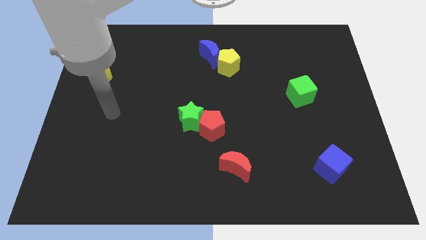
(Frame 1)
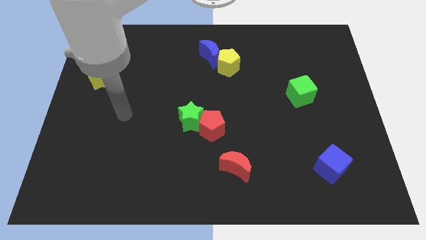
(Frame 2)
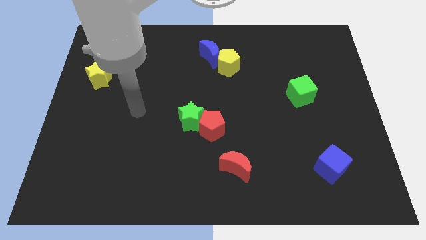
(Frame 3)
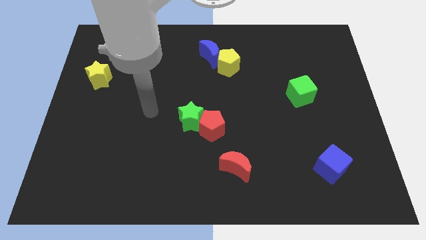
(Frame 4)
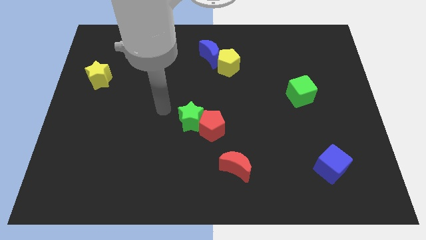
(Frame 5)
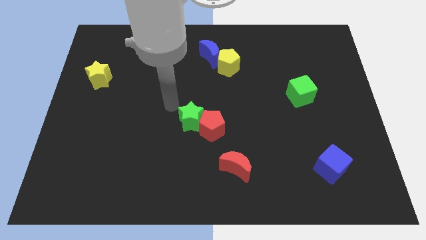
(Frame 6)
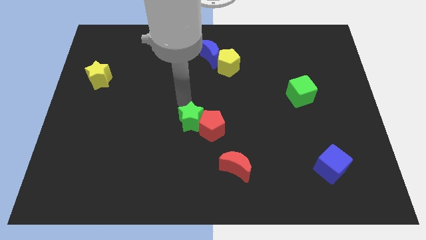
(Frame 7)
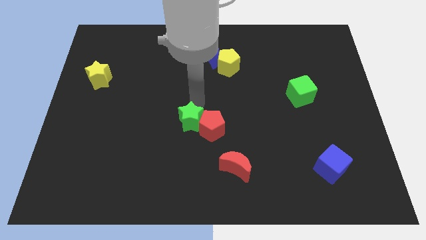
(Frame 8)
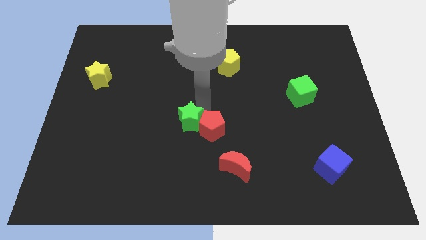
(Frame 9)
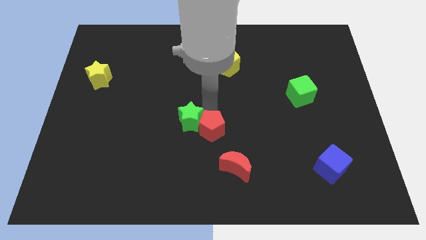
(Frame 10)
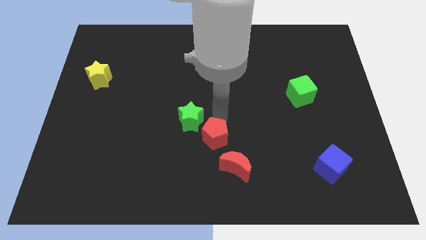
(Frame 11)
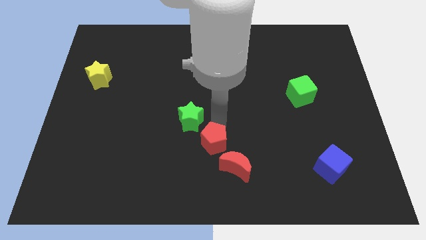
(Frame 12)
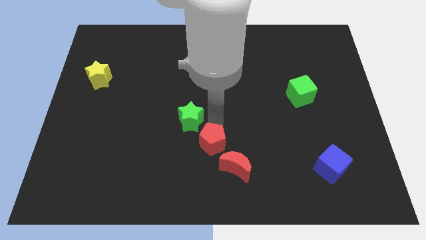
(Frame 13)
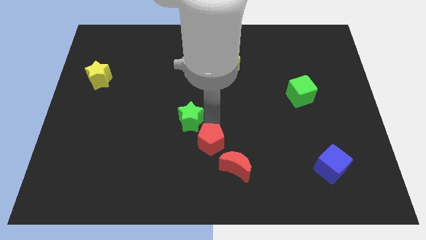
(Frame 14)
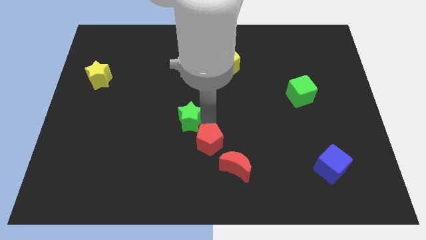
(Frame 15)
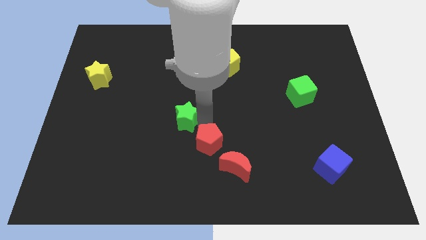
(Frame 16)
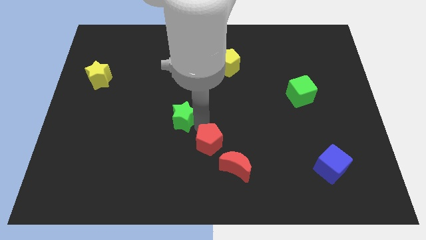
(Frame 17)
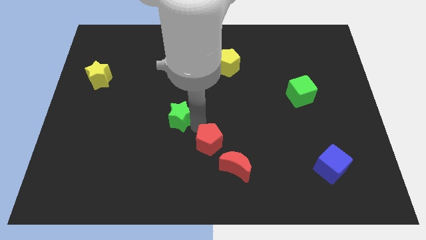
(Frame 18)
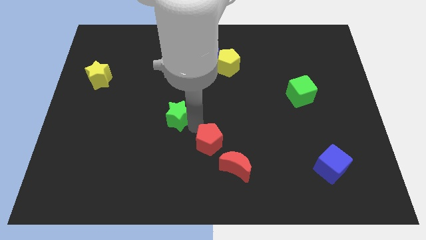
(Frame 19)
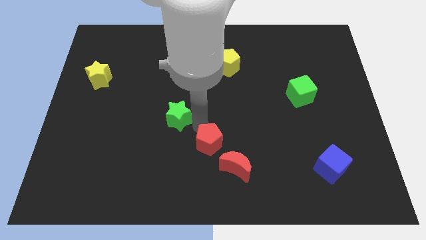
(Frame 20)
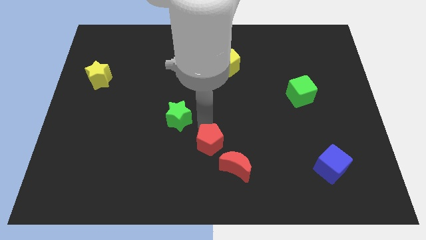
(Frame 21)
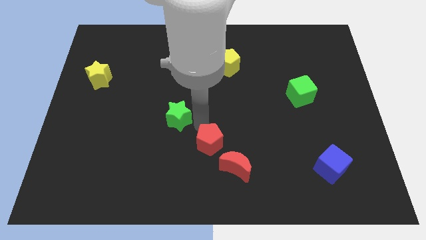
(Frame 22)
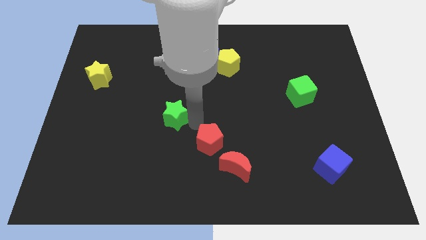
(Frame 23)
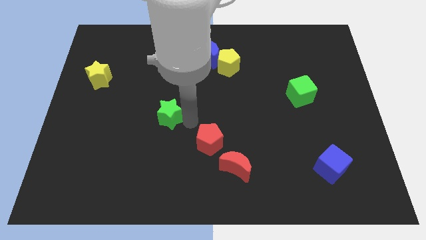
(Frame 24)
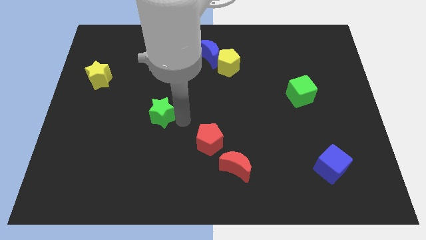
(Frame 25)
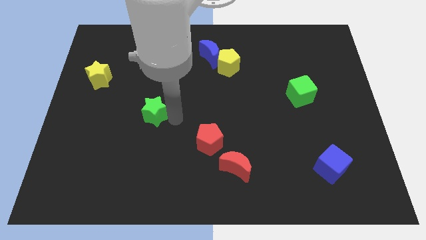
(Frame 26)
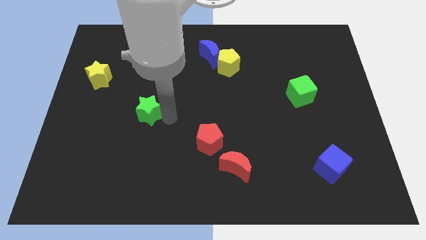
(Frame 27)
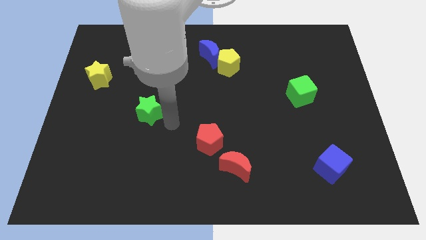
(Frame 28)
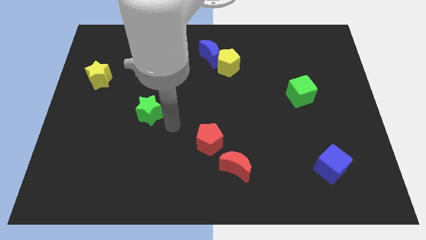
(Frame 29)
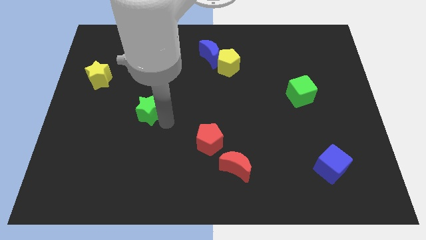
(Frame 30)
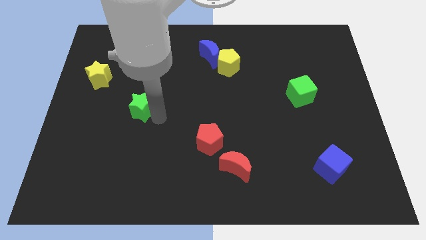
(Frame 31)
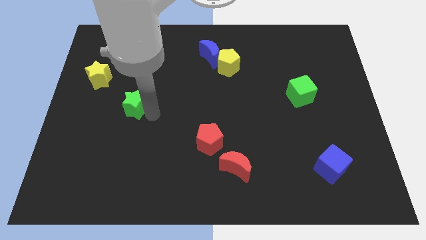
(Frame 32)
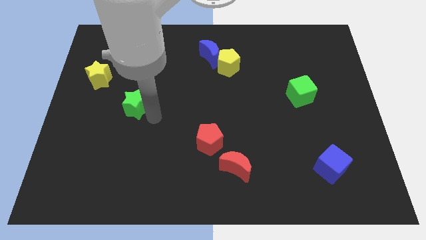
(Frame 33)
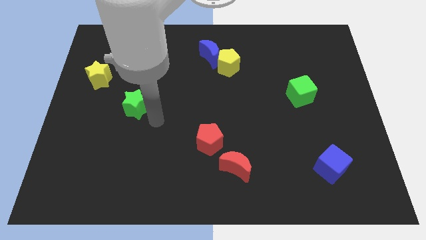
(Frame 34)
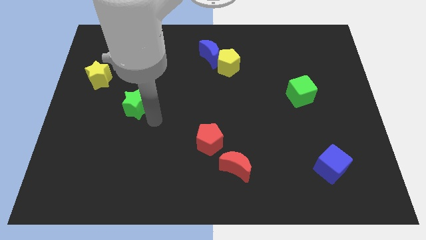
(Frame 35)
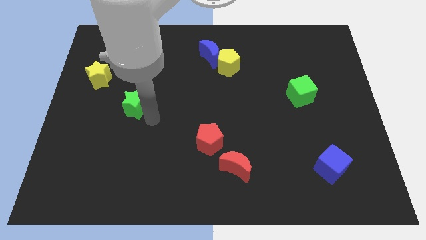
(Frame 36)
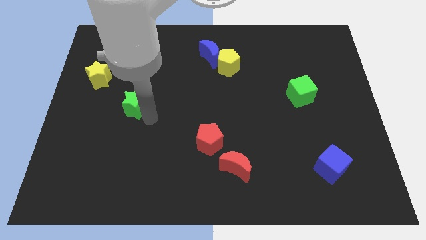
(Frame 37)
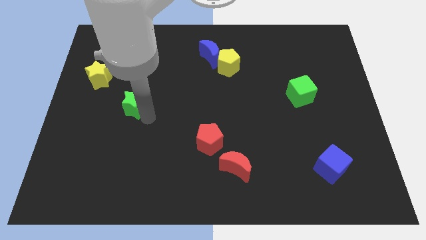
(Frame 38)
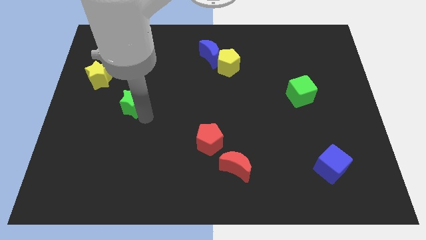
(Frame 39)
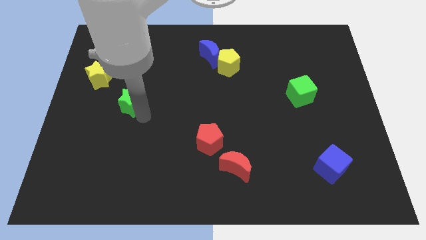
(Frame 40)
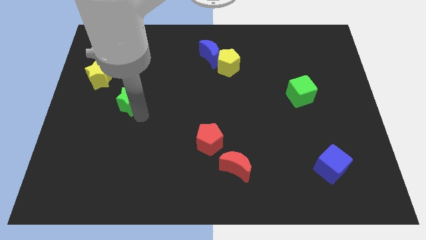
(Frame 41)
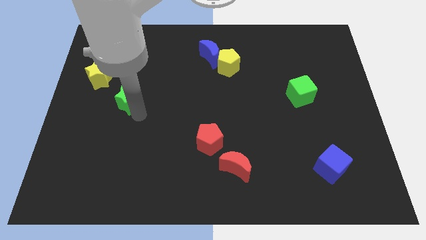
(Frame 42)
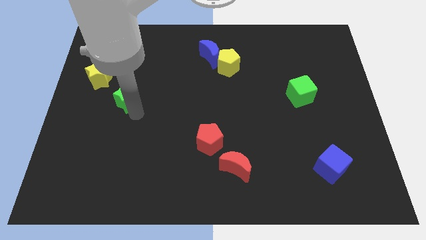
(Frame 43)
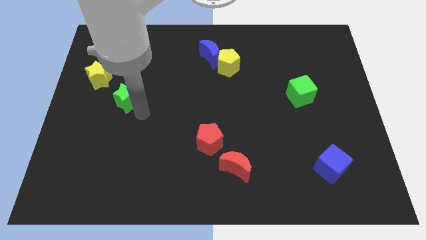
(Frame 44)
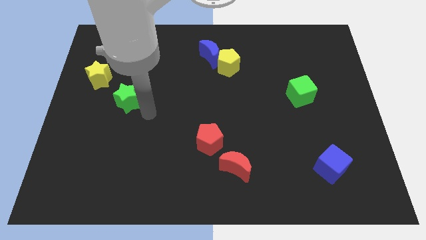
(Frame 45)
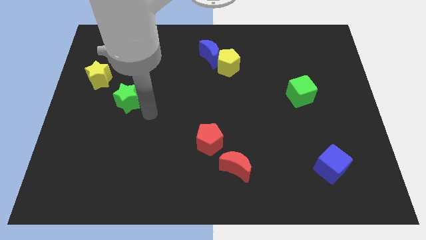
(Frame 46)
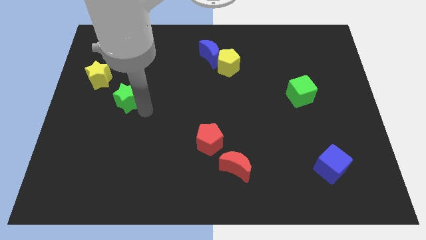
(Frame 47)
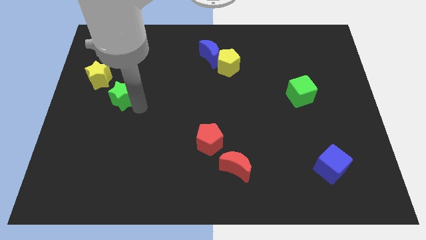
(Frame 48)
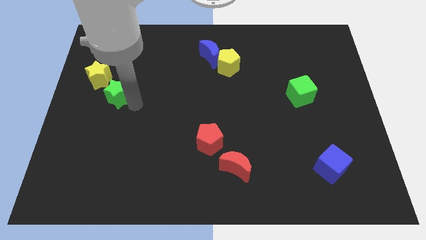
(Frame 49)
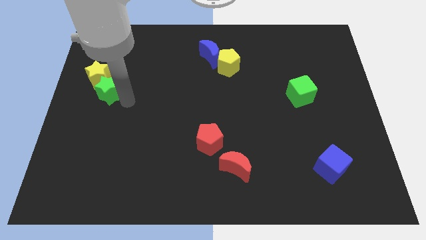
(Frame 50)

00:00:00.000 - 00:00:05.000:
slide the green star to the yellow star

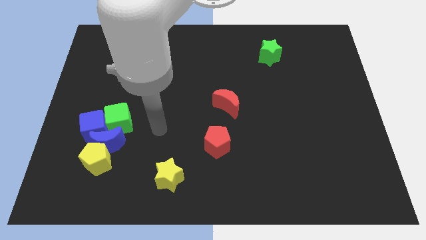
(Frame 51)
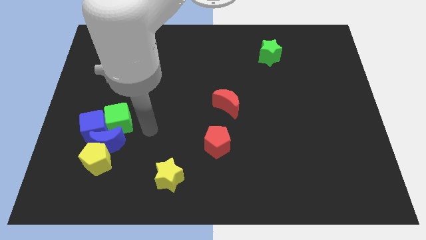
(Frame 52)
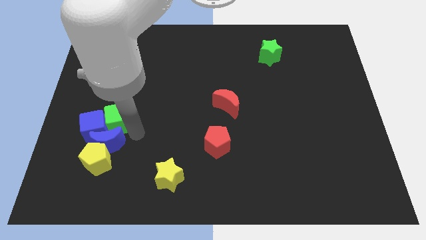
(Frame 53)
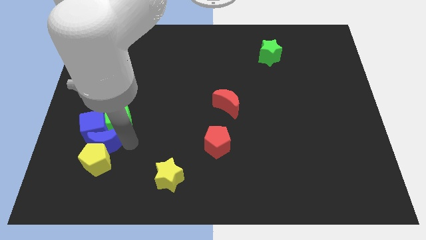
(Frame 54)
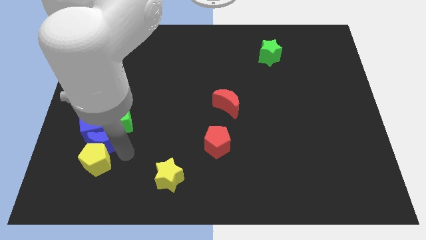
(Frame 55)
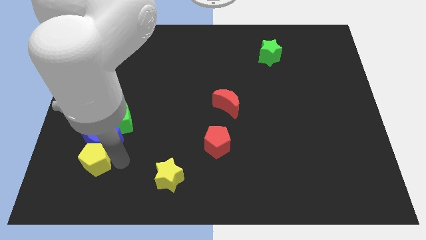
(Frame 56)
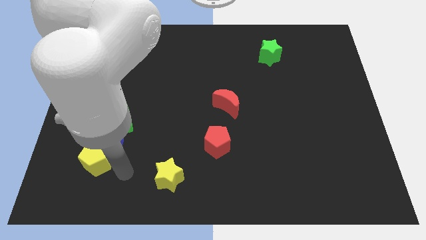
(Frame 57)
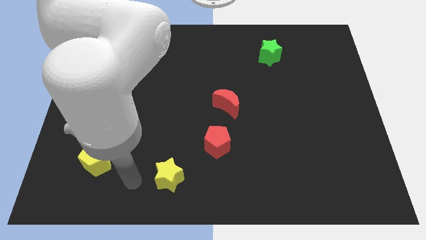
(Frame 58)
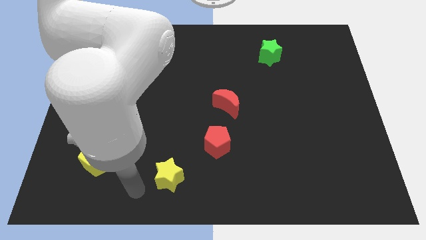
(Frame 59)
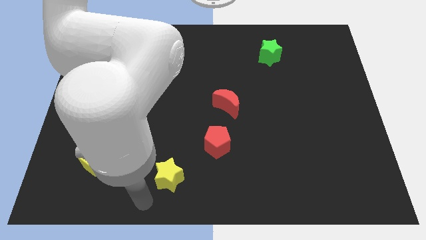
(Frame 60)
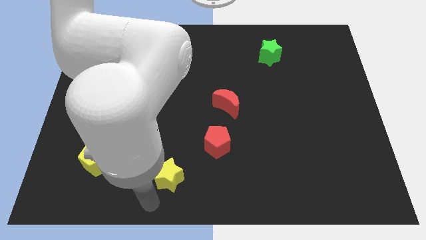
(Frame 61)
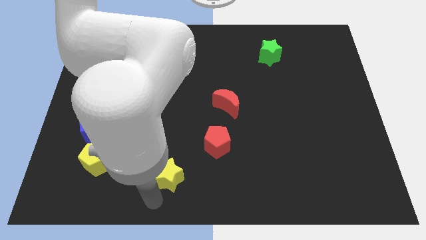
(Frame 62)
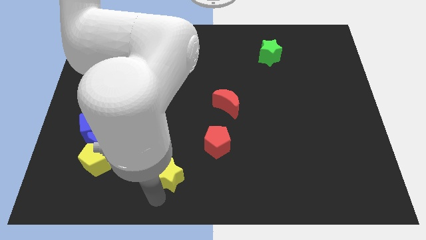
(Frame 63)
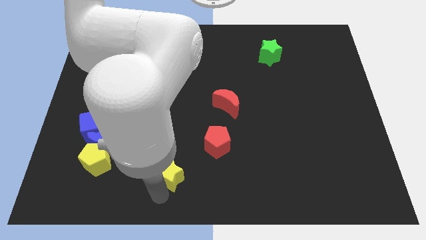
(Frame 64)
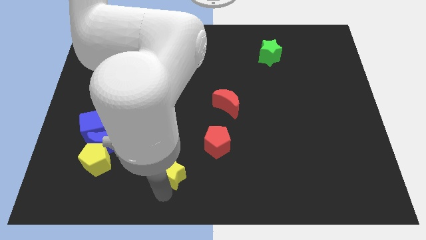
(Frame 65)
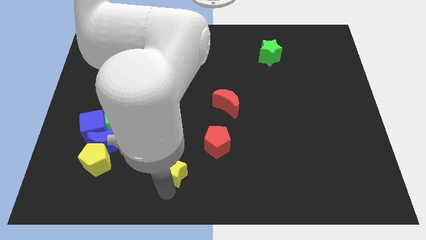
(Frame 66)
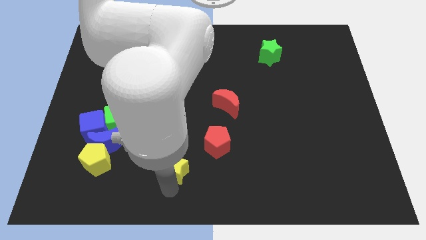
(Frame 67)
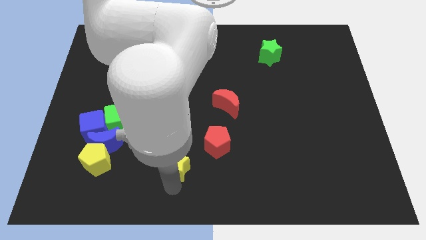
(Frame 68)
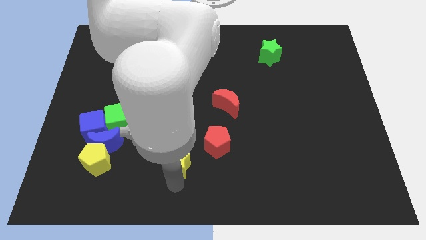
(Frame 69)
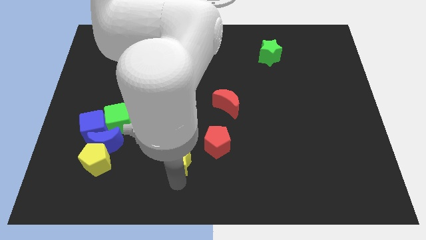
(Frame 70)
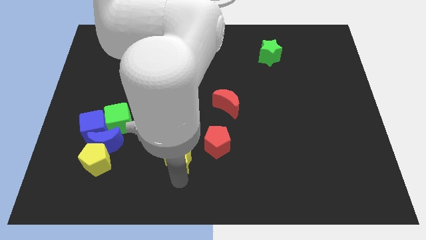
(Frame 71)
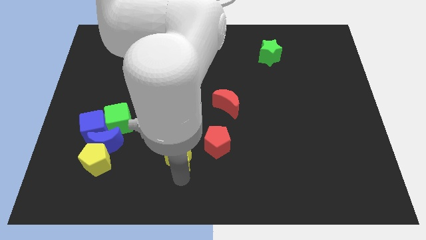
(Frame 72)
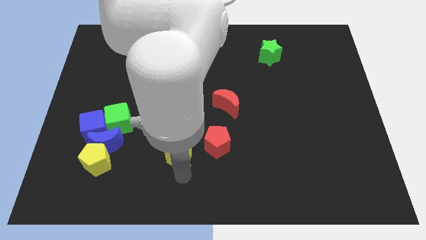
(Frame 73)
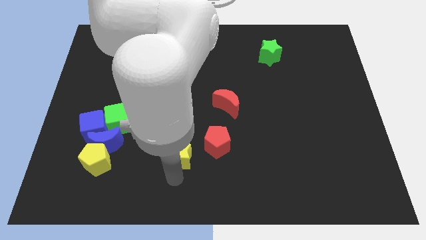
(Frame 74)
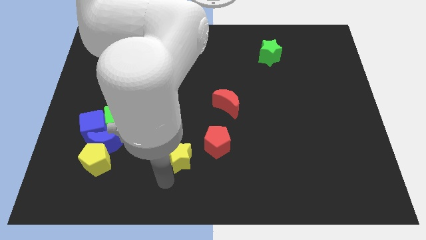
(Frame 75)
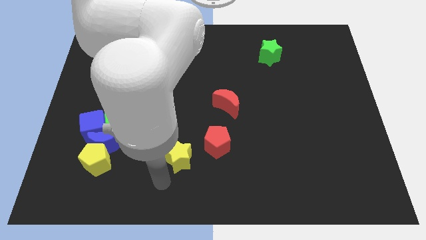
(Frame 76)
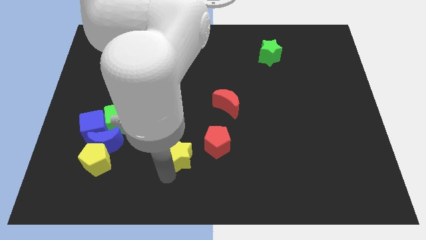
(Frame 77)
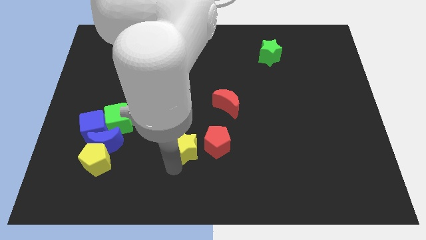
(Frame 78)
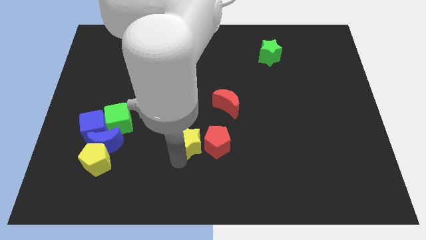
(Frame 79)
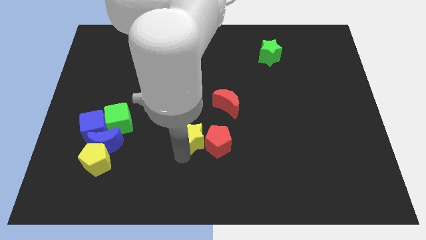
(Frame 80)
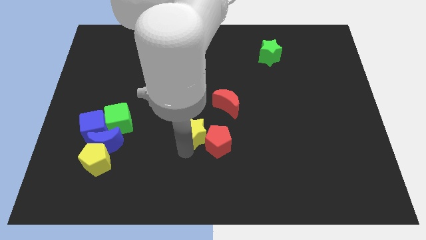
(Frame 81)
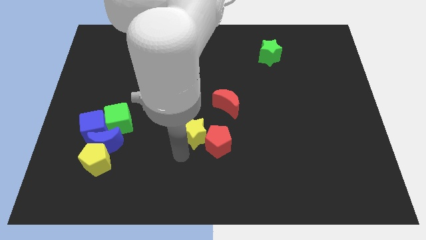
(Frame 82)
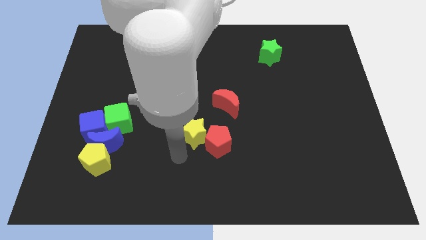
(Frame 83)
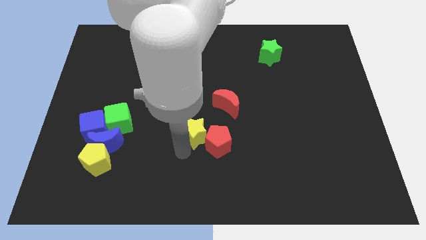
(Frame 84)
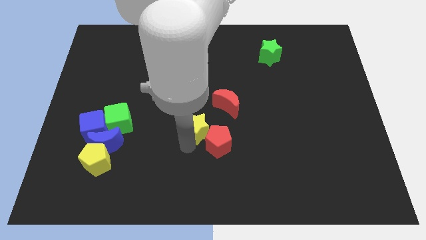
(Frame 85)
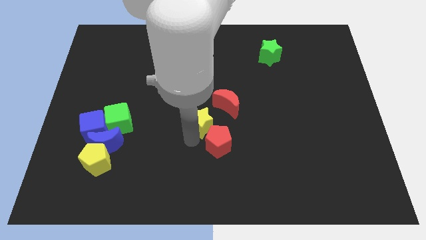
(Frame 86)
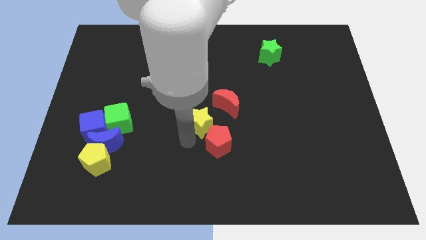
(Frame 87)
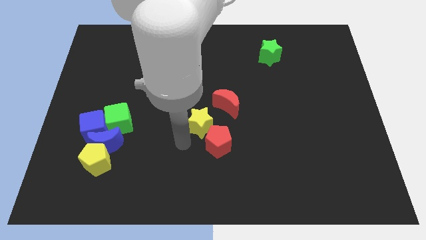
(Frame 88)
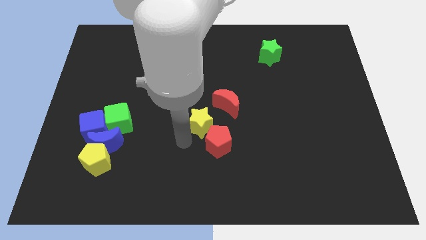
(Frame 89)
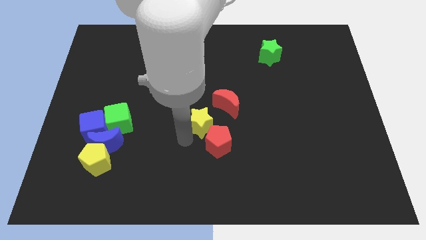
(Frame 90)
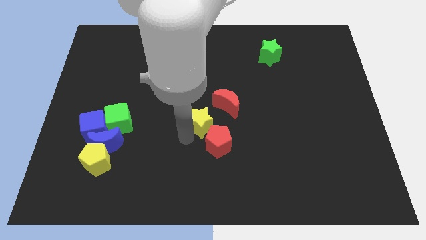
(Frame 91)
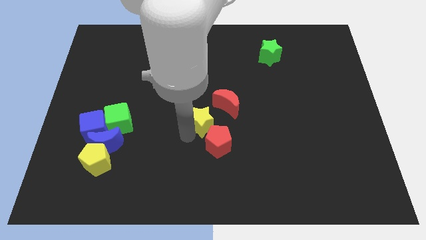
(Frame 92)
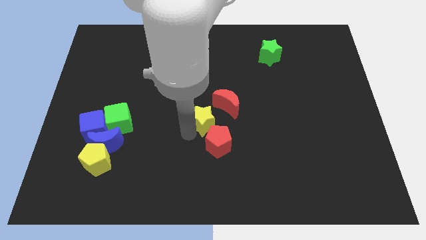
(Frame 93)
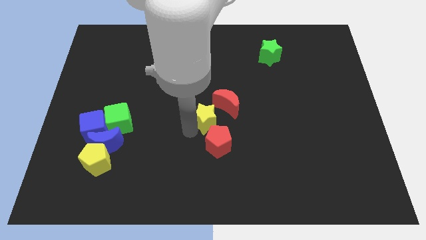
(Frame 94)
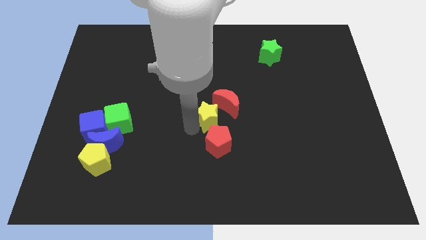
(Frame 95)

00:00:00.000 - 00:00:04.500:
move the yellow star close to the red moon
